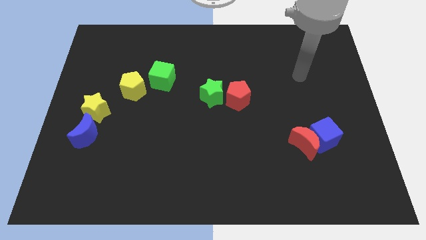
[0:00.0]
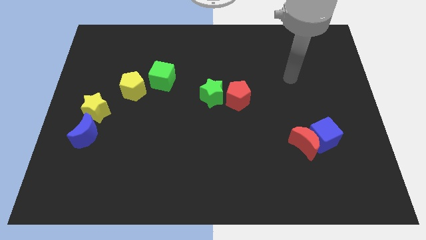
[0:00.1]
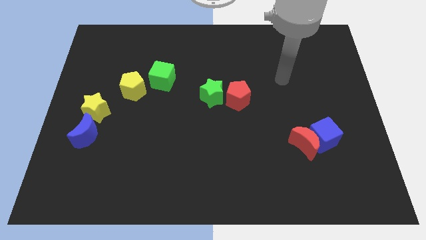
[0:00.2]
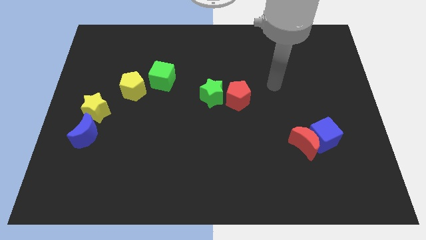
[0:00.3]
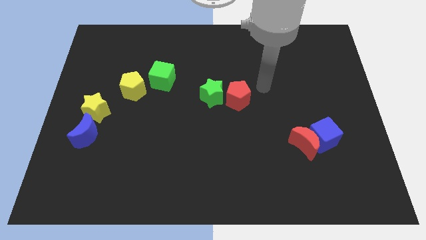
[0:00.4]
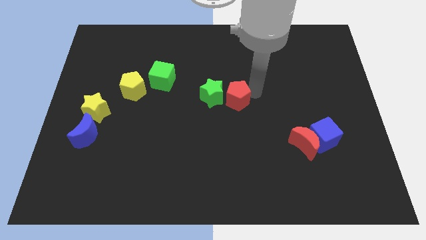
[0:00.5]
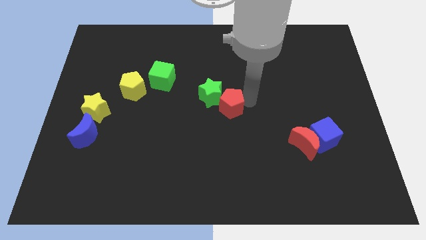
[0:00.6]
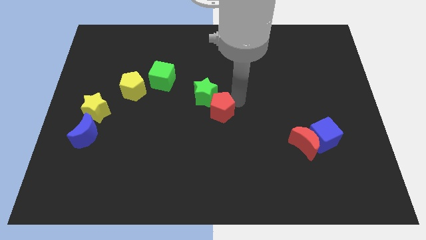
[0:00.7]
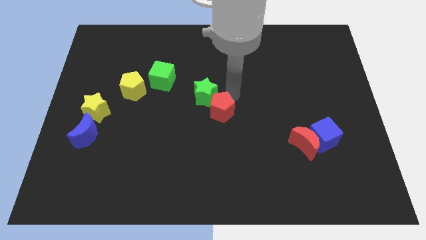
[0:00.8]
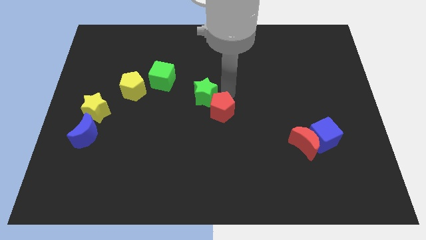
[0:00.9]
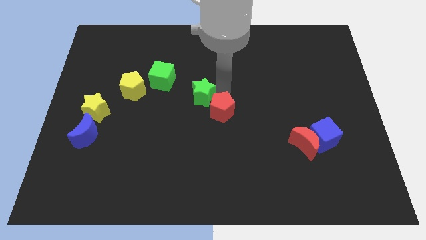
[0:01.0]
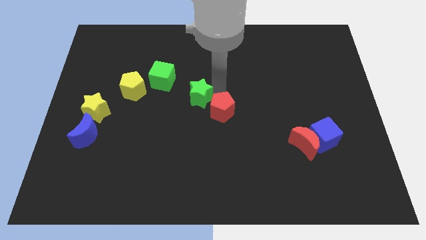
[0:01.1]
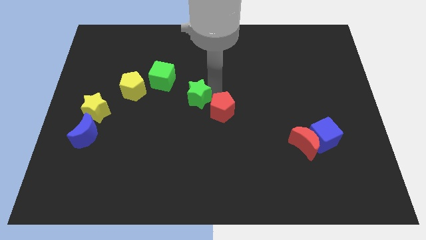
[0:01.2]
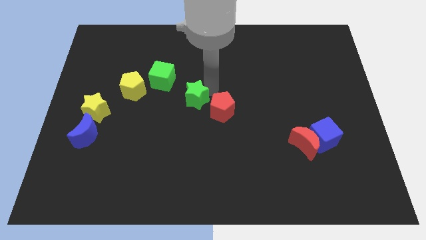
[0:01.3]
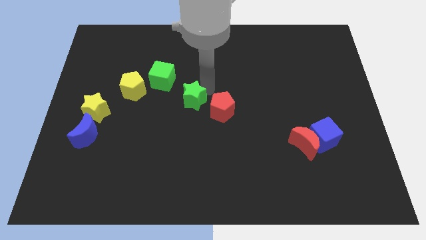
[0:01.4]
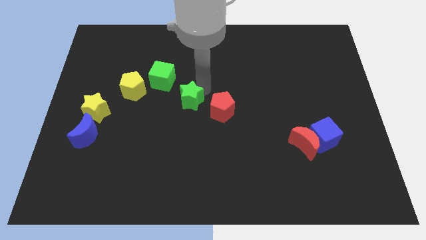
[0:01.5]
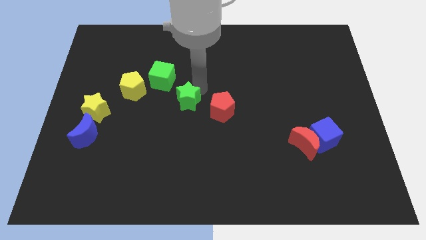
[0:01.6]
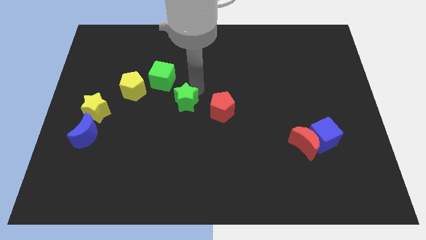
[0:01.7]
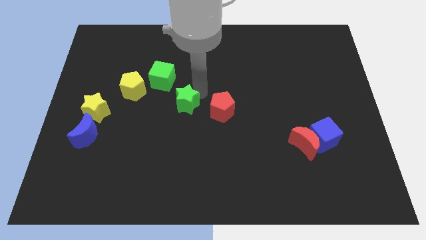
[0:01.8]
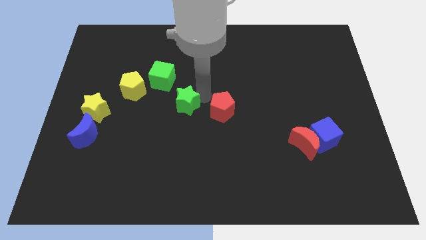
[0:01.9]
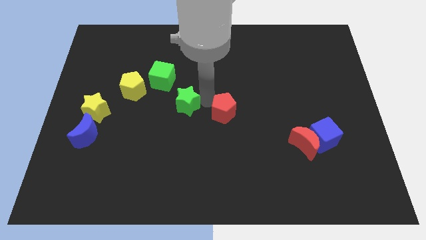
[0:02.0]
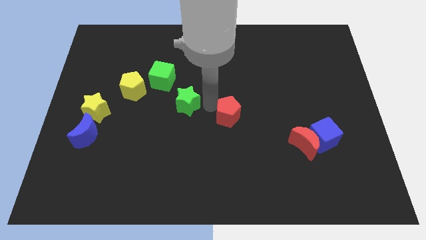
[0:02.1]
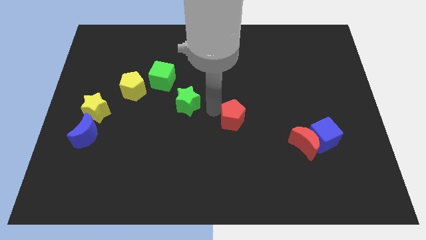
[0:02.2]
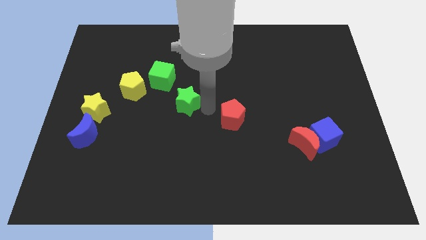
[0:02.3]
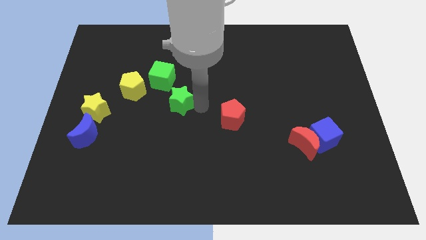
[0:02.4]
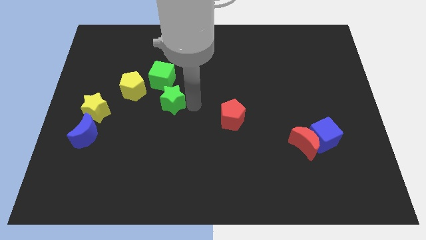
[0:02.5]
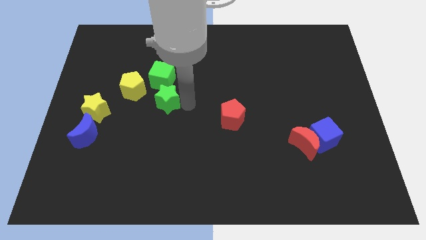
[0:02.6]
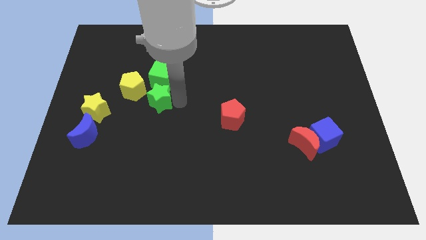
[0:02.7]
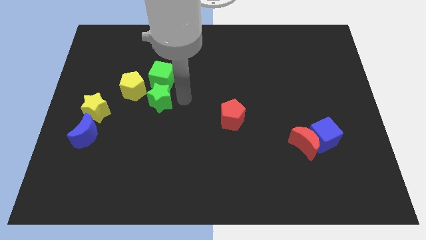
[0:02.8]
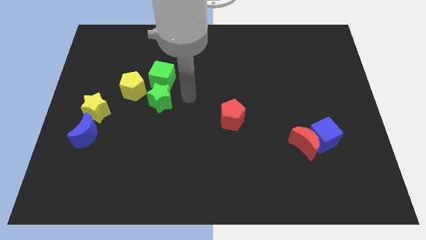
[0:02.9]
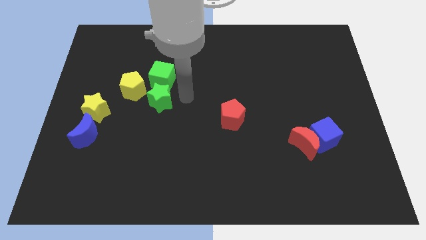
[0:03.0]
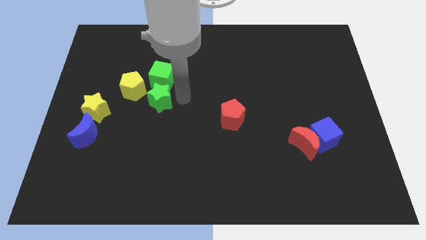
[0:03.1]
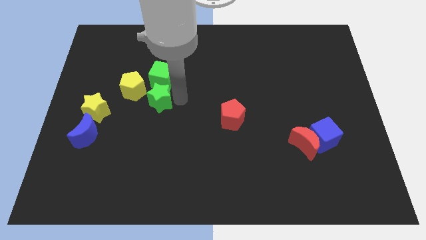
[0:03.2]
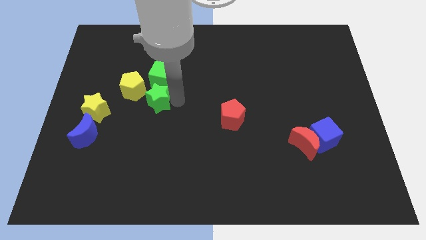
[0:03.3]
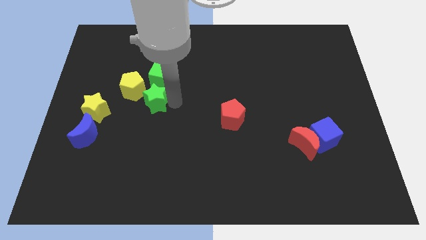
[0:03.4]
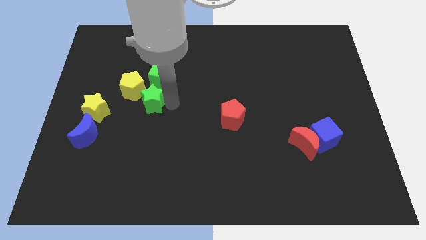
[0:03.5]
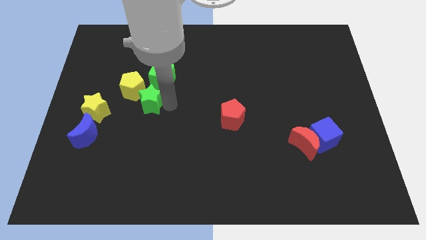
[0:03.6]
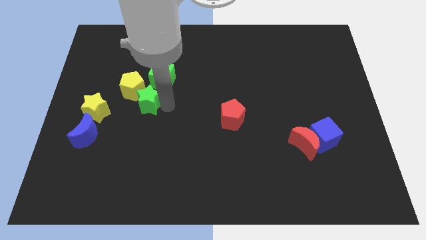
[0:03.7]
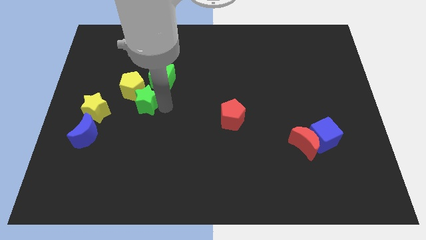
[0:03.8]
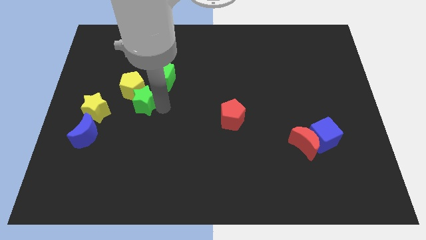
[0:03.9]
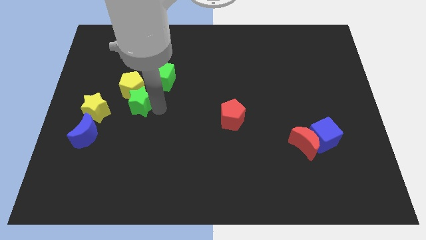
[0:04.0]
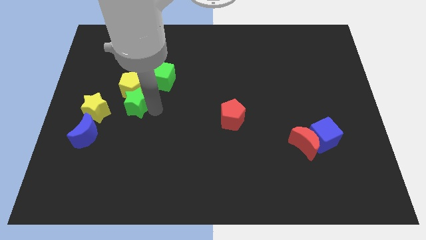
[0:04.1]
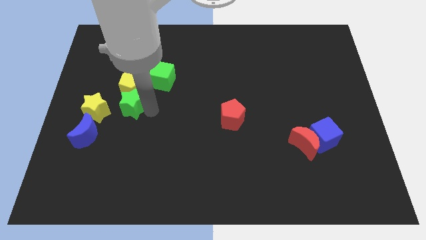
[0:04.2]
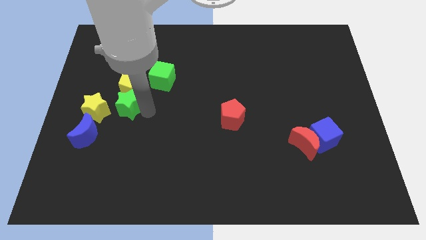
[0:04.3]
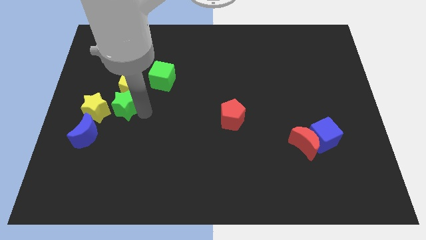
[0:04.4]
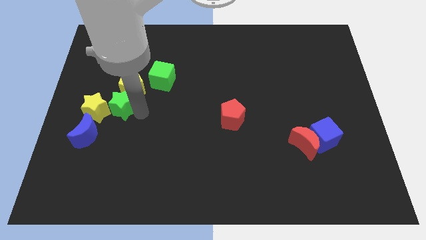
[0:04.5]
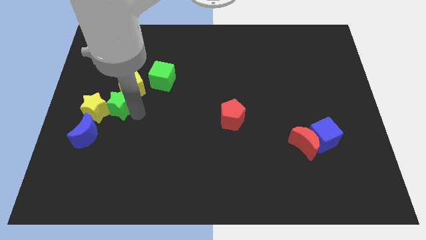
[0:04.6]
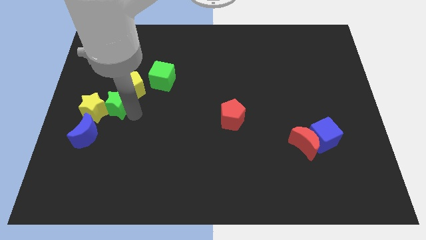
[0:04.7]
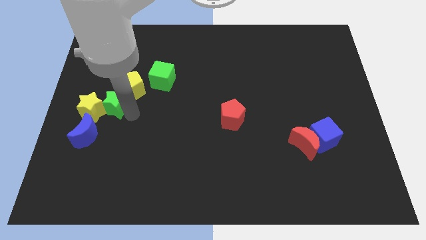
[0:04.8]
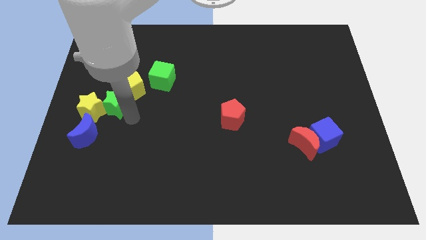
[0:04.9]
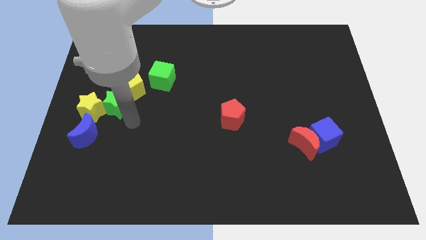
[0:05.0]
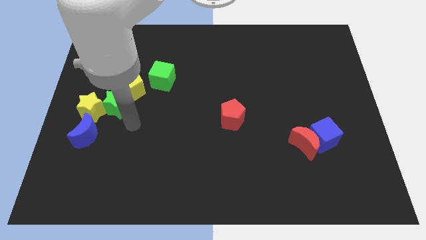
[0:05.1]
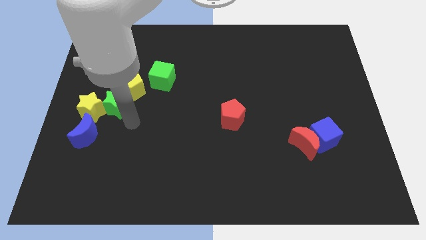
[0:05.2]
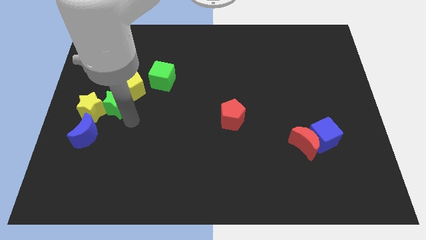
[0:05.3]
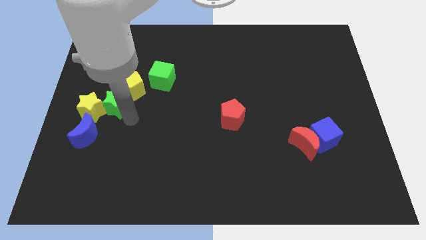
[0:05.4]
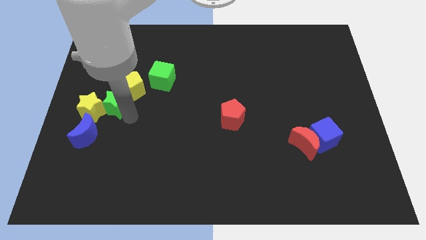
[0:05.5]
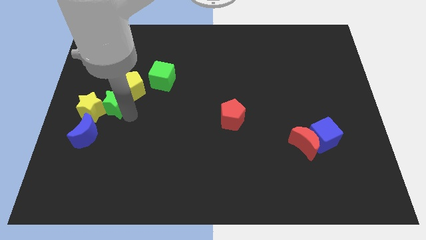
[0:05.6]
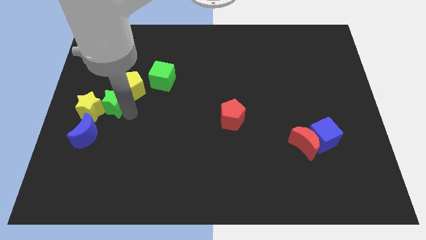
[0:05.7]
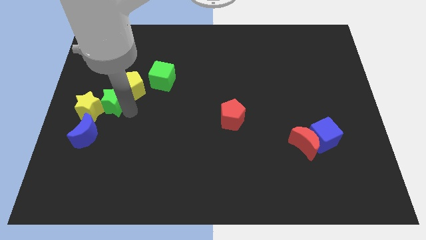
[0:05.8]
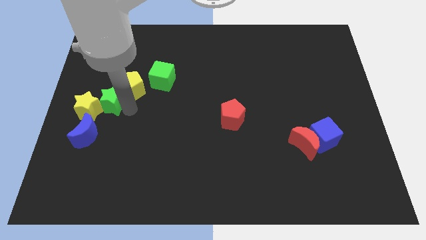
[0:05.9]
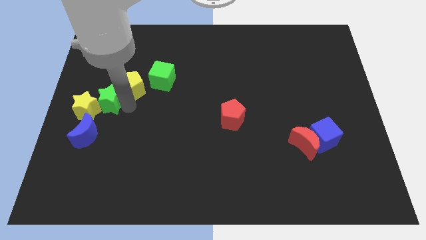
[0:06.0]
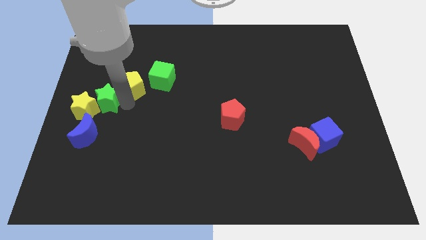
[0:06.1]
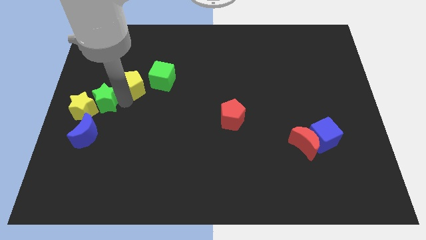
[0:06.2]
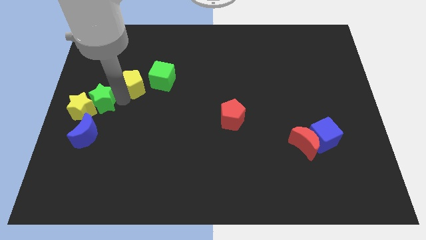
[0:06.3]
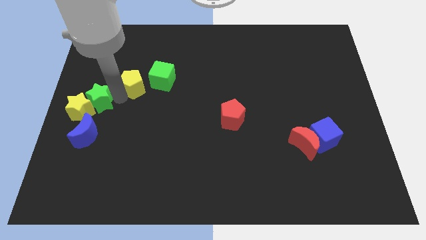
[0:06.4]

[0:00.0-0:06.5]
push the green star to the top of the yellow star
